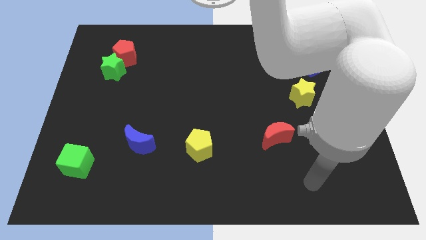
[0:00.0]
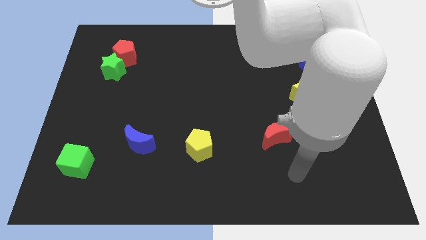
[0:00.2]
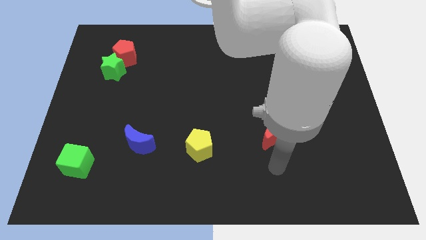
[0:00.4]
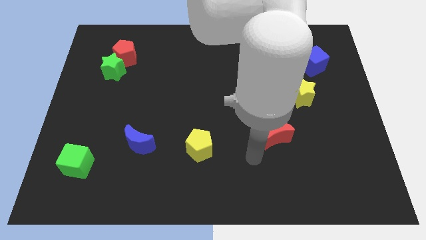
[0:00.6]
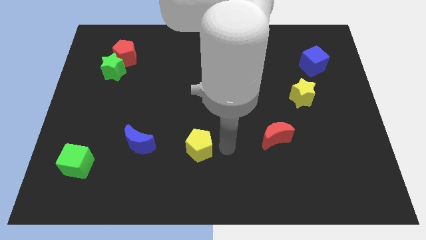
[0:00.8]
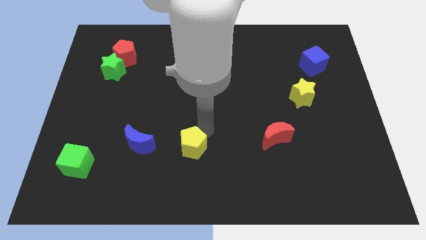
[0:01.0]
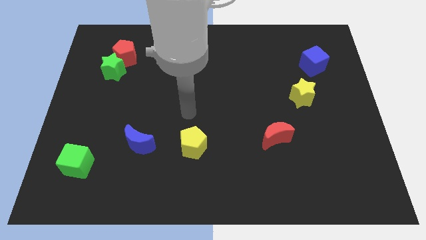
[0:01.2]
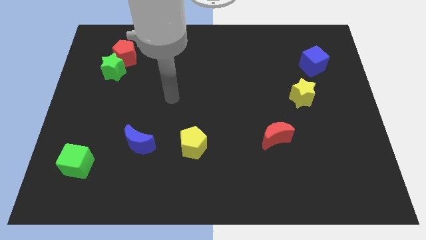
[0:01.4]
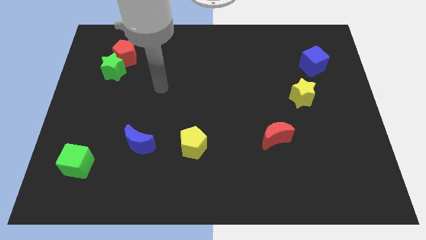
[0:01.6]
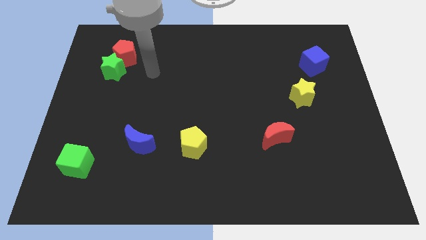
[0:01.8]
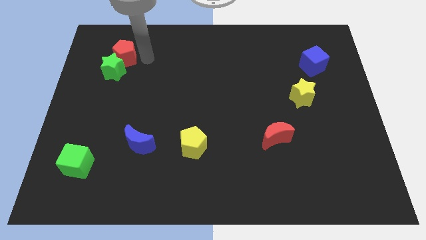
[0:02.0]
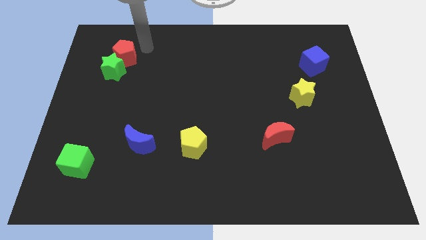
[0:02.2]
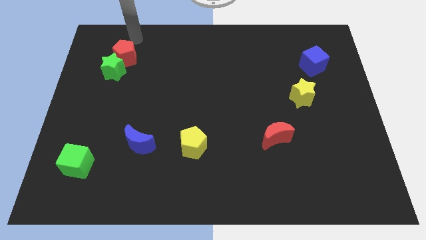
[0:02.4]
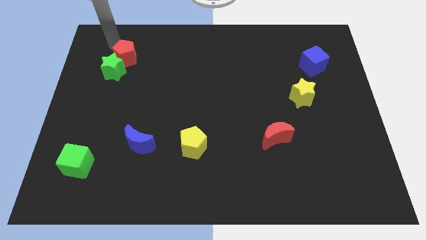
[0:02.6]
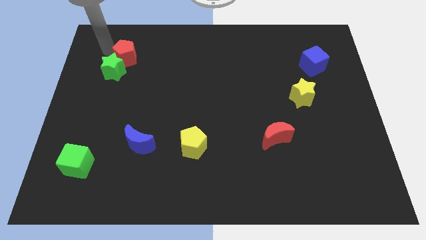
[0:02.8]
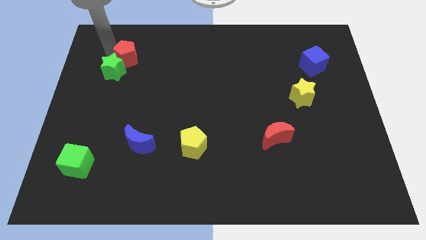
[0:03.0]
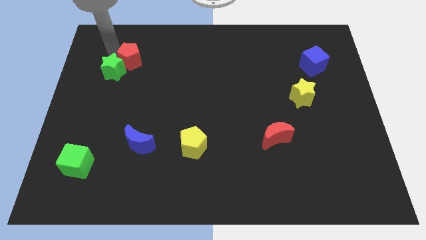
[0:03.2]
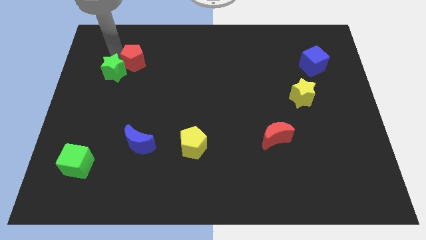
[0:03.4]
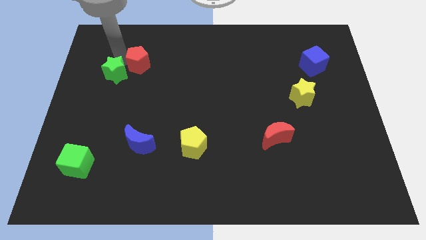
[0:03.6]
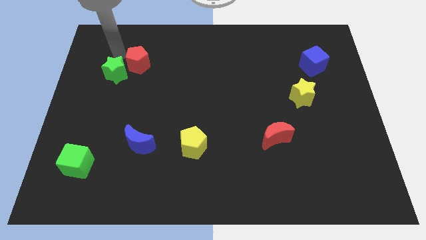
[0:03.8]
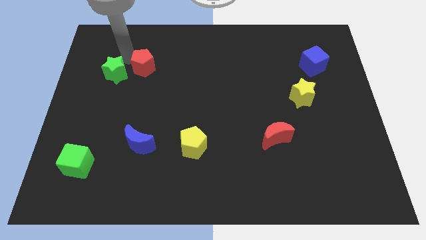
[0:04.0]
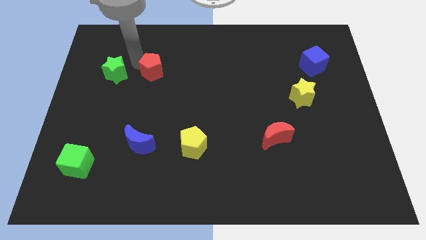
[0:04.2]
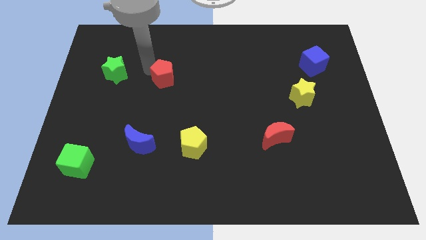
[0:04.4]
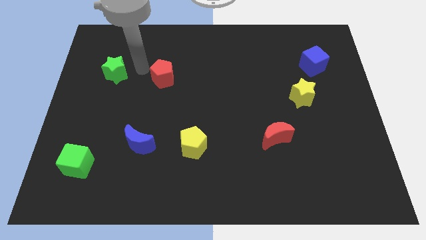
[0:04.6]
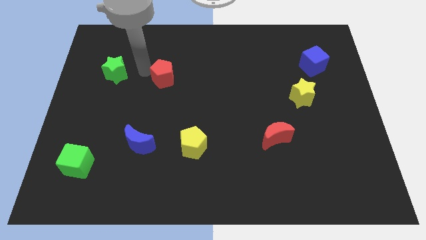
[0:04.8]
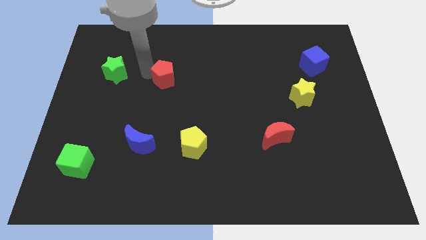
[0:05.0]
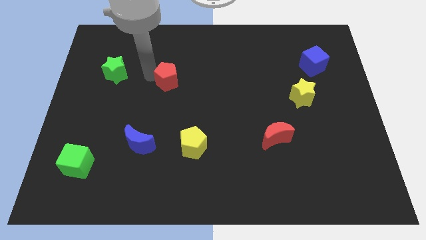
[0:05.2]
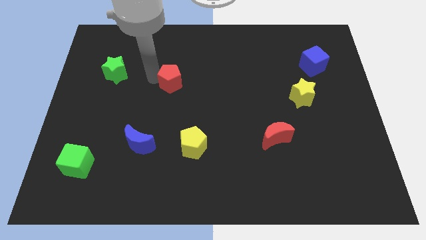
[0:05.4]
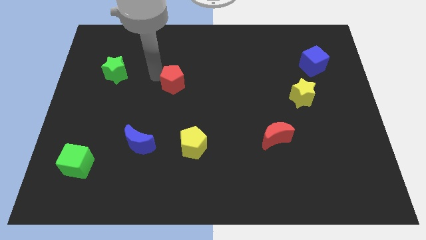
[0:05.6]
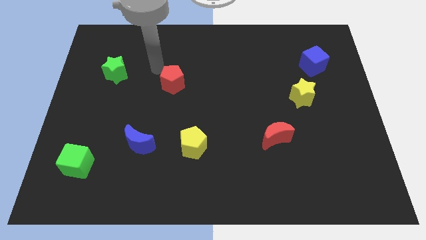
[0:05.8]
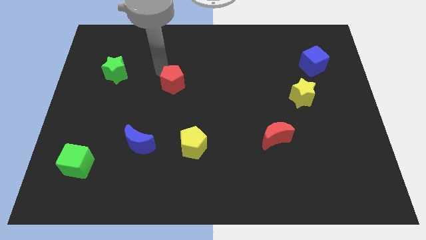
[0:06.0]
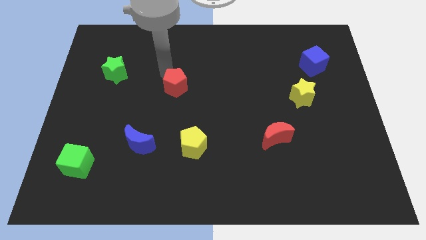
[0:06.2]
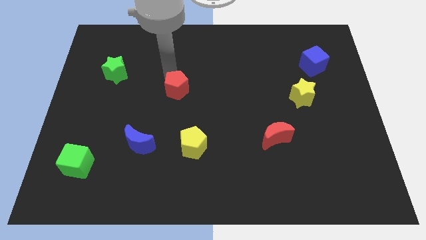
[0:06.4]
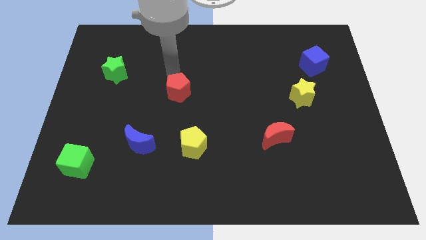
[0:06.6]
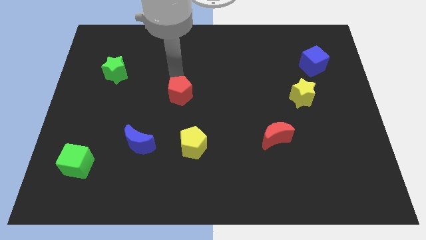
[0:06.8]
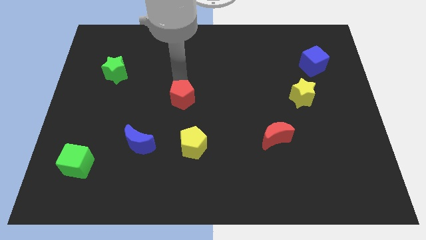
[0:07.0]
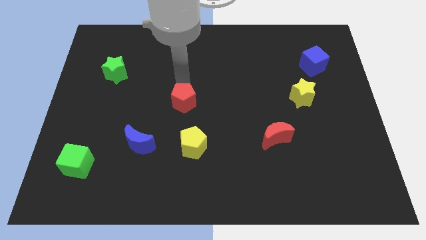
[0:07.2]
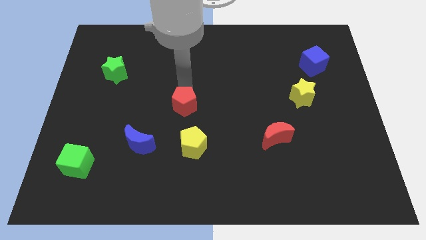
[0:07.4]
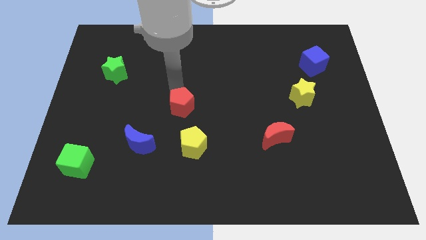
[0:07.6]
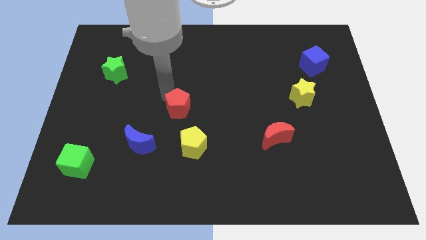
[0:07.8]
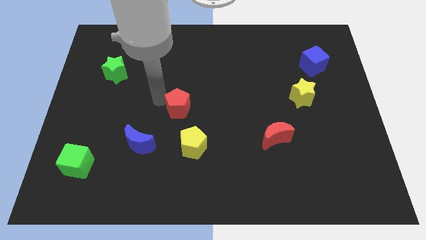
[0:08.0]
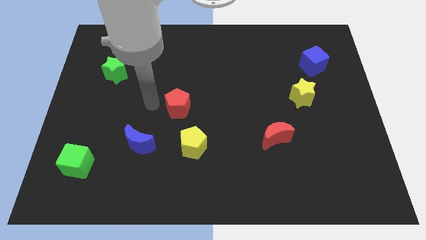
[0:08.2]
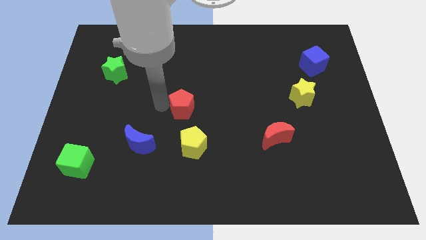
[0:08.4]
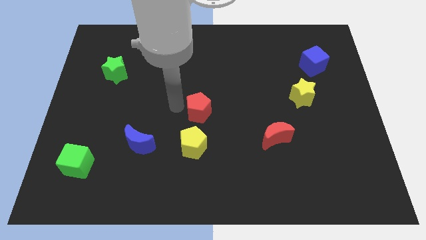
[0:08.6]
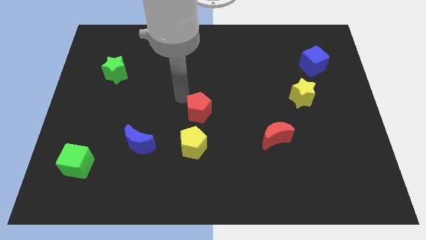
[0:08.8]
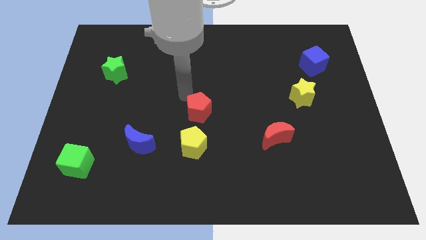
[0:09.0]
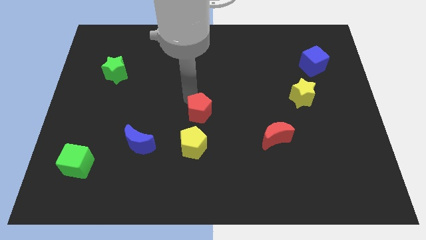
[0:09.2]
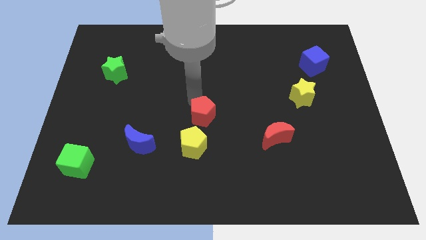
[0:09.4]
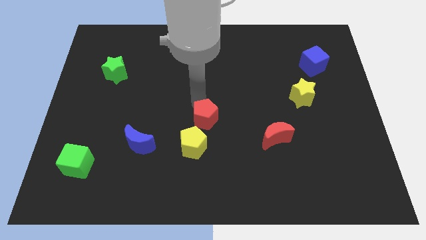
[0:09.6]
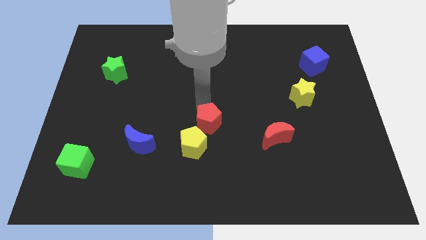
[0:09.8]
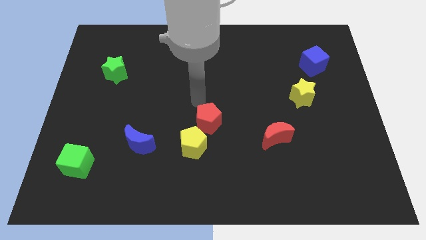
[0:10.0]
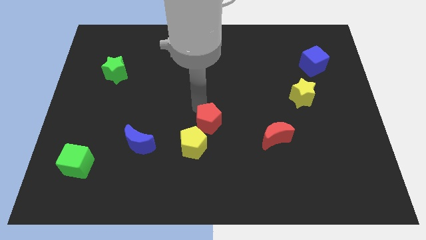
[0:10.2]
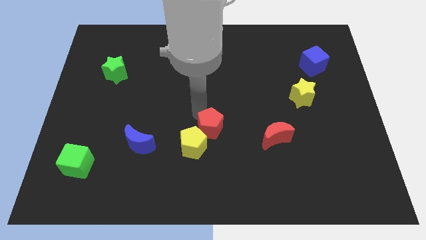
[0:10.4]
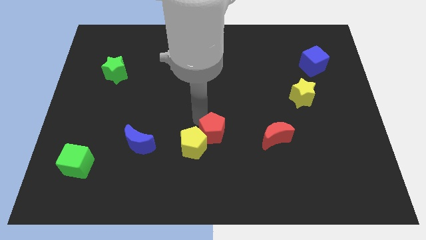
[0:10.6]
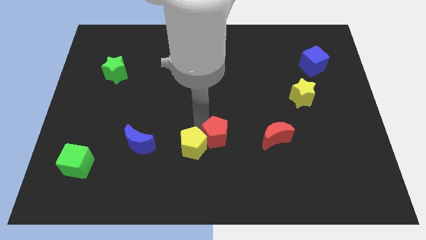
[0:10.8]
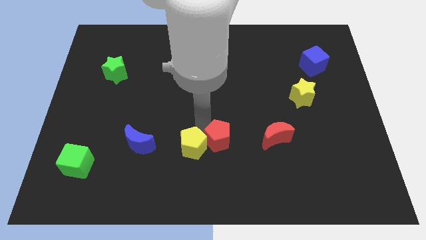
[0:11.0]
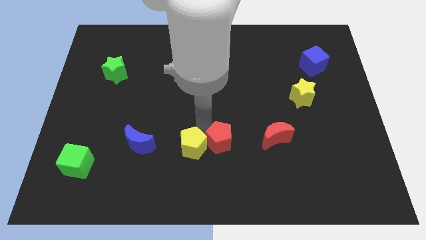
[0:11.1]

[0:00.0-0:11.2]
move the red pentagon diagonally down and to the right of the yellow pentagon

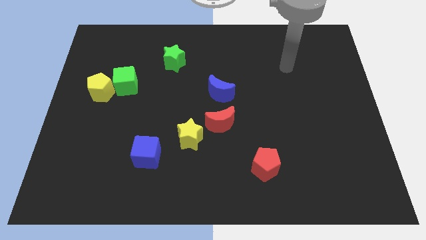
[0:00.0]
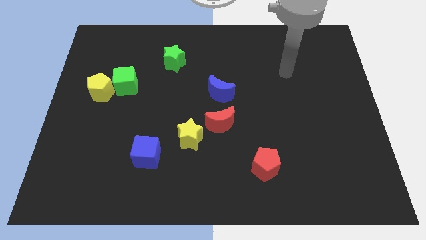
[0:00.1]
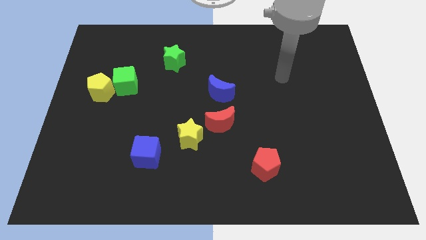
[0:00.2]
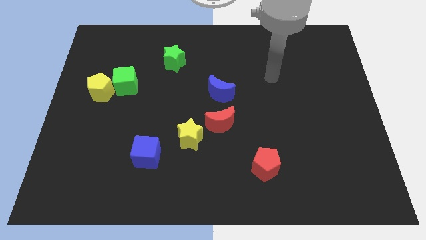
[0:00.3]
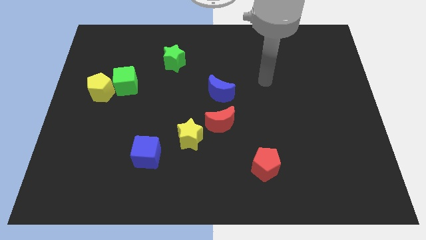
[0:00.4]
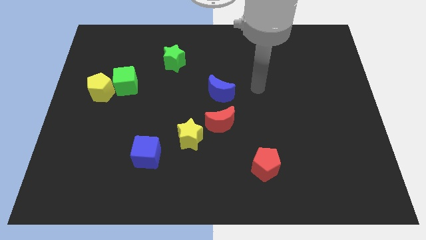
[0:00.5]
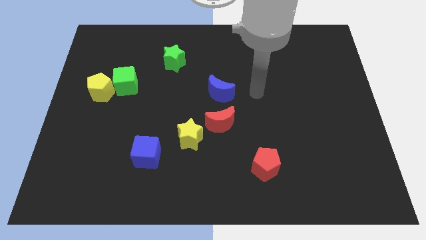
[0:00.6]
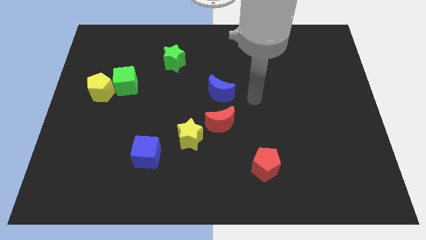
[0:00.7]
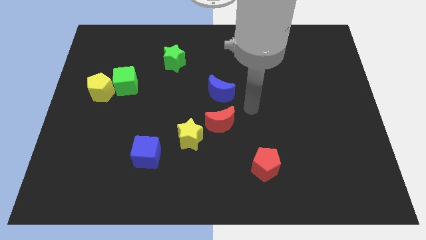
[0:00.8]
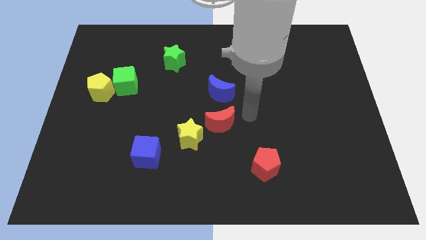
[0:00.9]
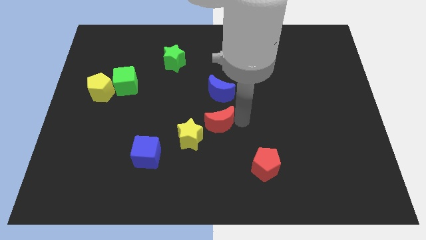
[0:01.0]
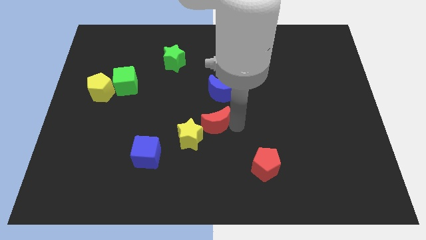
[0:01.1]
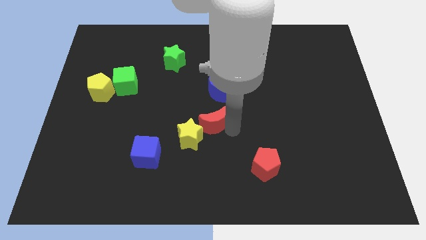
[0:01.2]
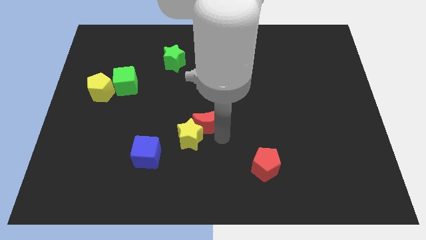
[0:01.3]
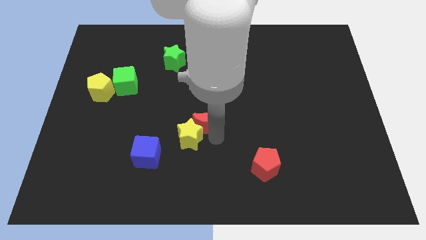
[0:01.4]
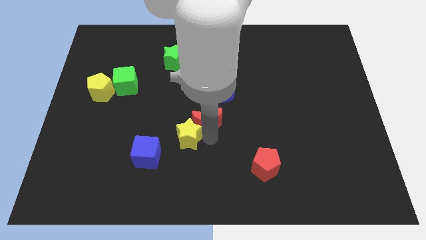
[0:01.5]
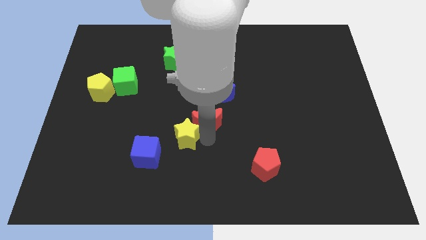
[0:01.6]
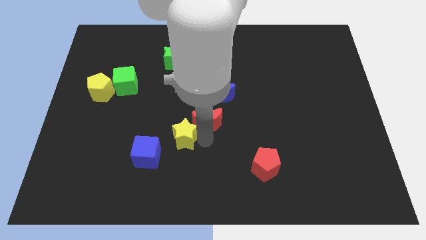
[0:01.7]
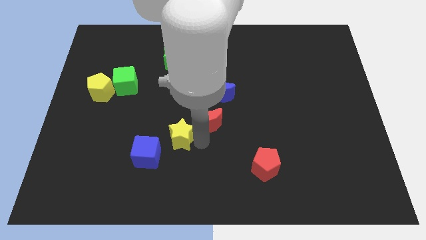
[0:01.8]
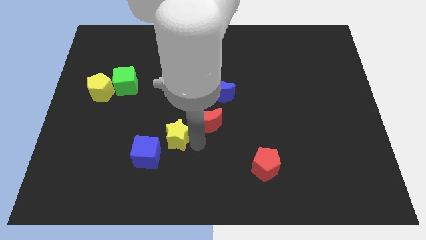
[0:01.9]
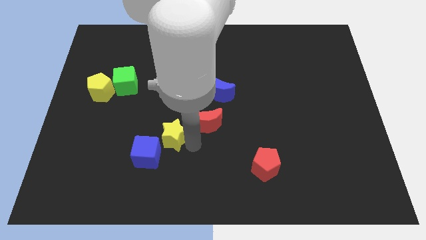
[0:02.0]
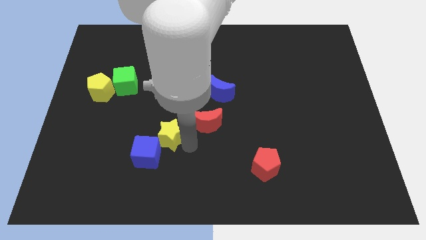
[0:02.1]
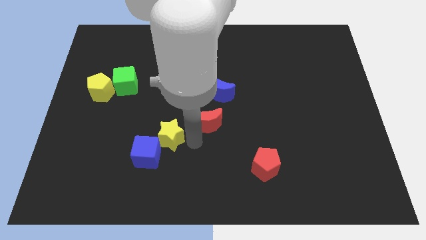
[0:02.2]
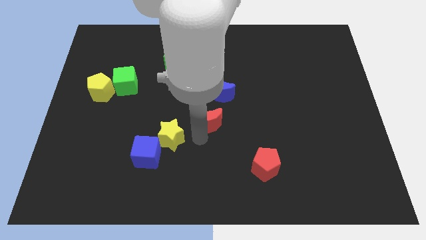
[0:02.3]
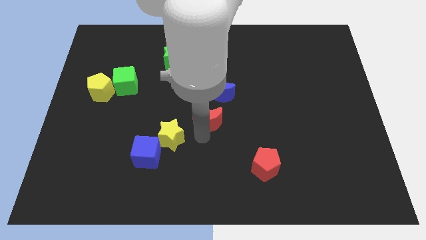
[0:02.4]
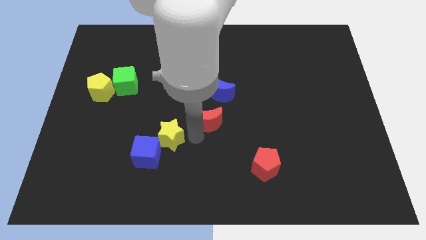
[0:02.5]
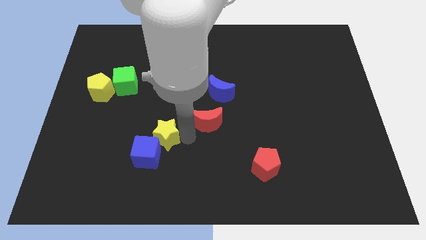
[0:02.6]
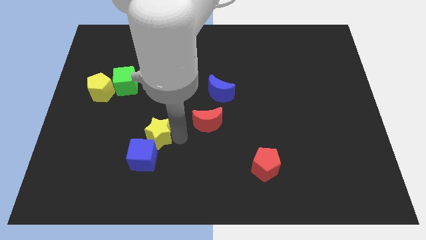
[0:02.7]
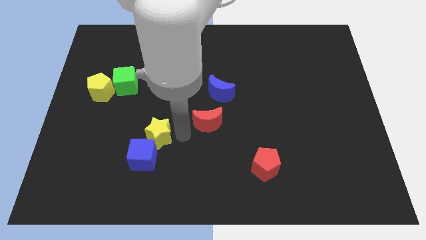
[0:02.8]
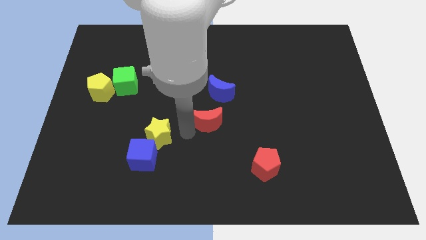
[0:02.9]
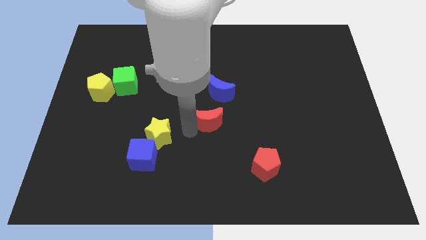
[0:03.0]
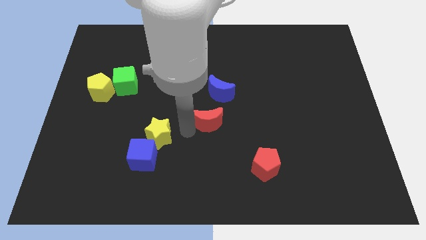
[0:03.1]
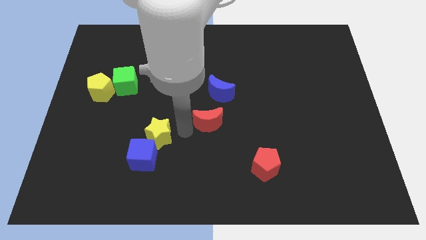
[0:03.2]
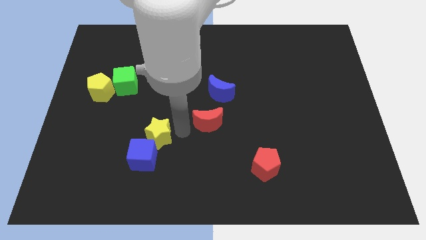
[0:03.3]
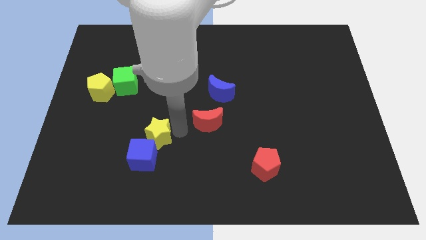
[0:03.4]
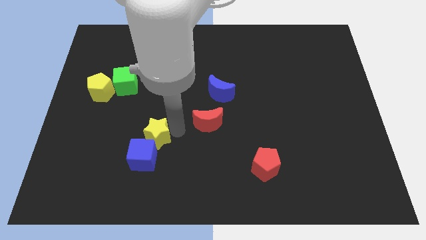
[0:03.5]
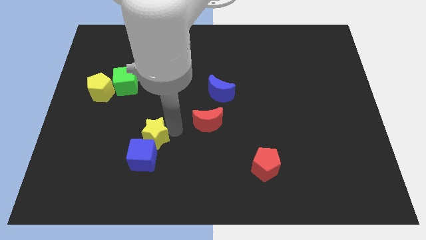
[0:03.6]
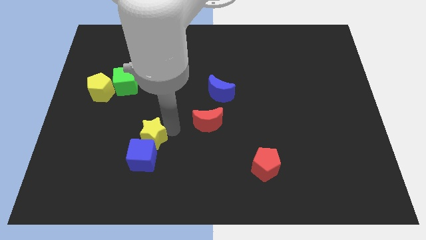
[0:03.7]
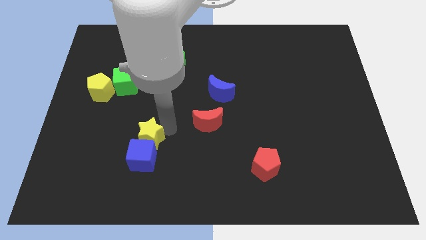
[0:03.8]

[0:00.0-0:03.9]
move the yellow star to the top left side of the blue cube
